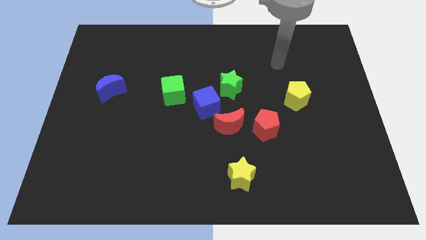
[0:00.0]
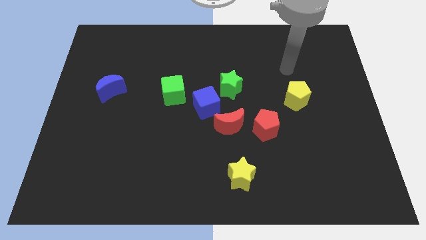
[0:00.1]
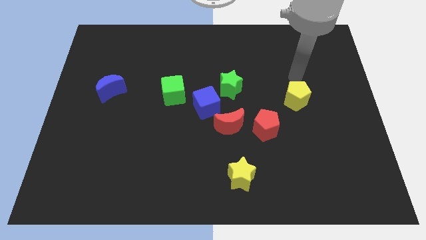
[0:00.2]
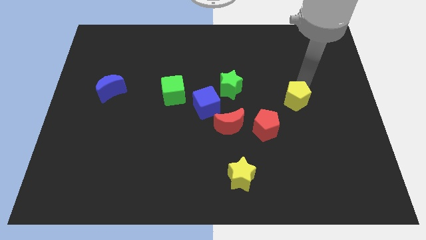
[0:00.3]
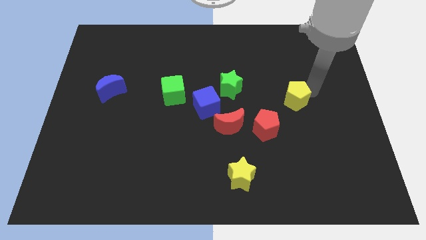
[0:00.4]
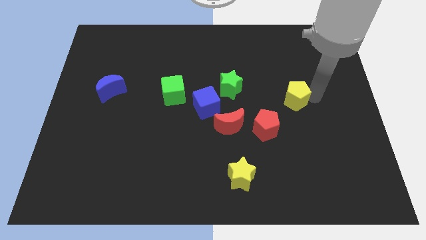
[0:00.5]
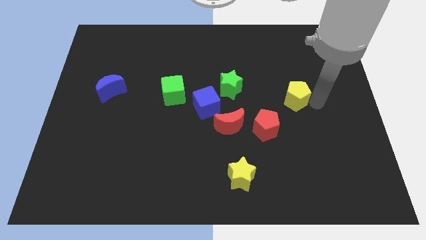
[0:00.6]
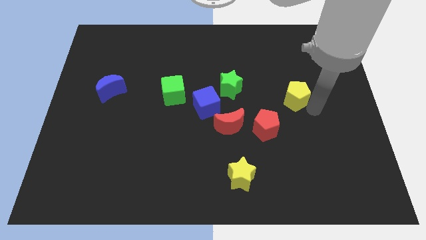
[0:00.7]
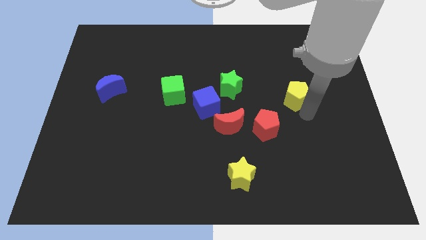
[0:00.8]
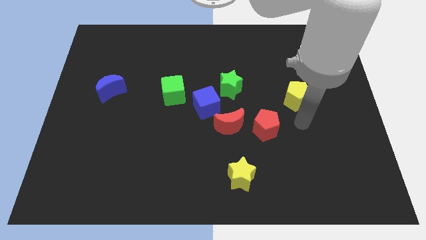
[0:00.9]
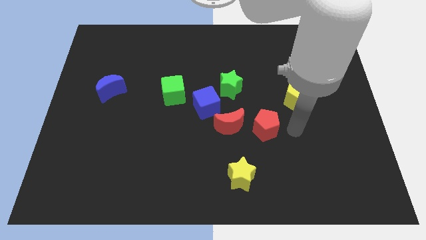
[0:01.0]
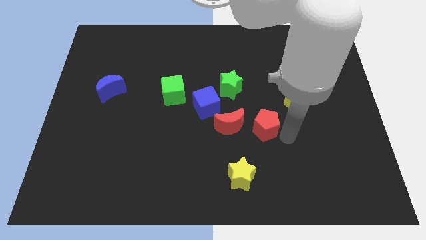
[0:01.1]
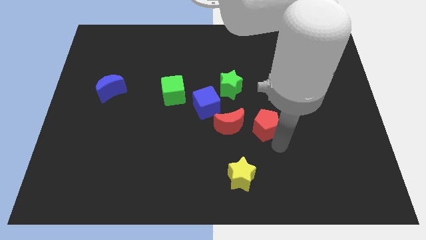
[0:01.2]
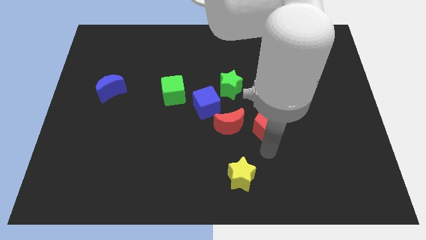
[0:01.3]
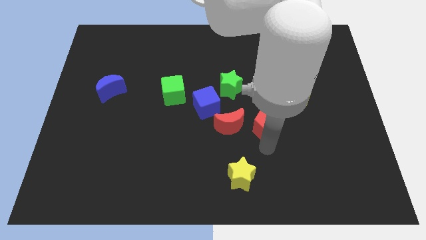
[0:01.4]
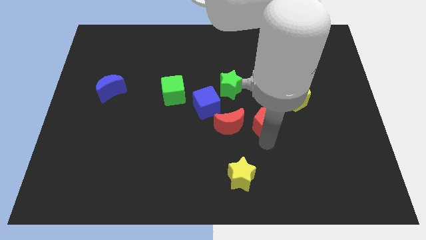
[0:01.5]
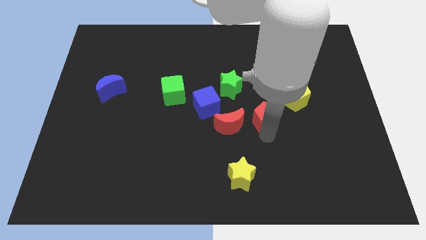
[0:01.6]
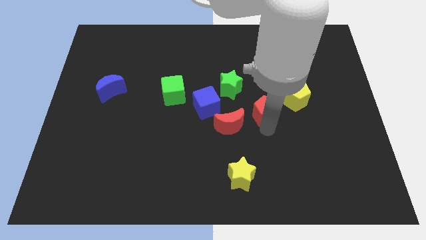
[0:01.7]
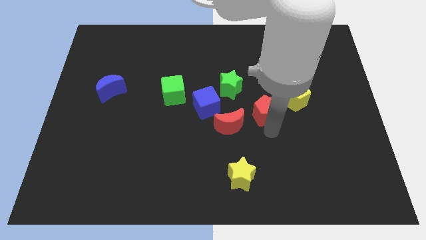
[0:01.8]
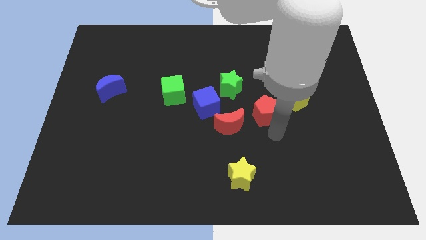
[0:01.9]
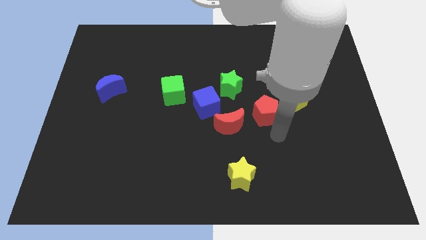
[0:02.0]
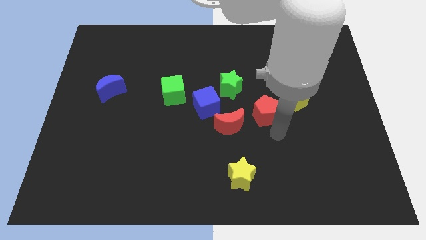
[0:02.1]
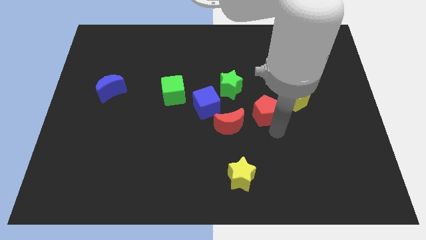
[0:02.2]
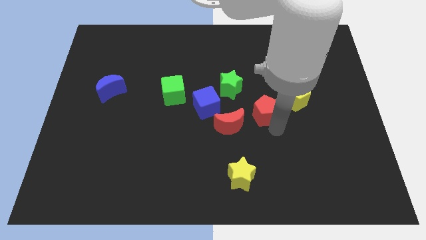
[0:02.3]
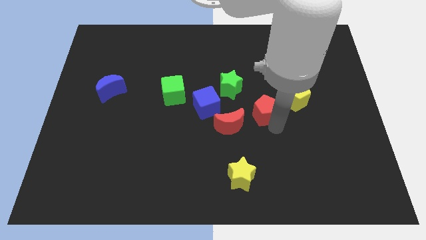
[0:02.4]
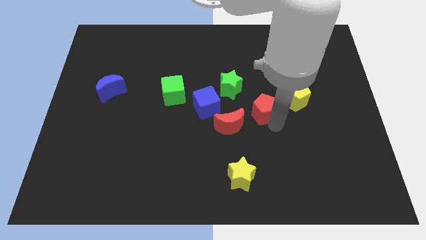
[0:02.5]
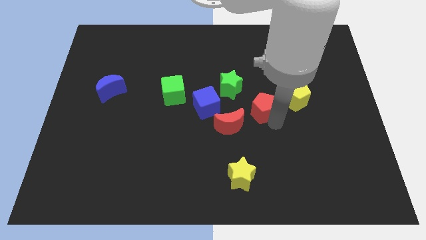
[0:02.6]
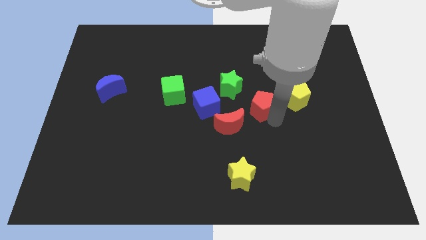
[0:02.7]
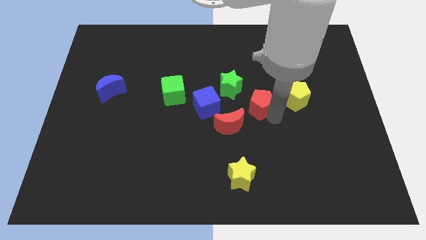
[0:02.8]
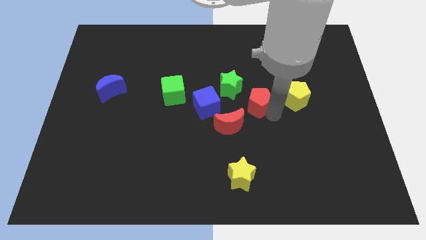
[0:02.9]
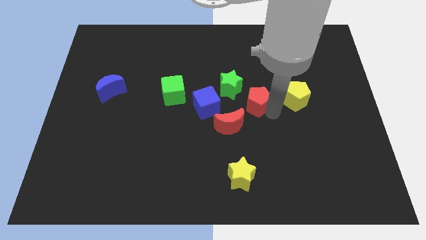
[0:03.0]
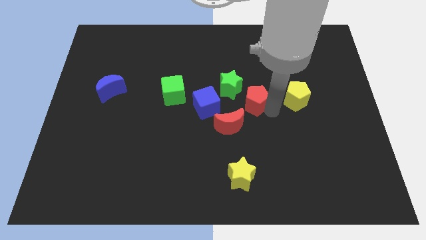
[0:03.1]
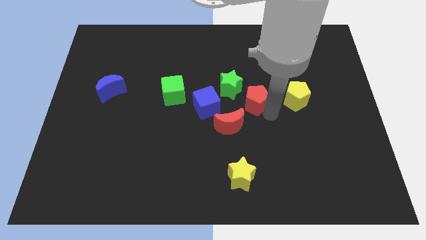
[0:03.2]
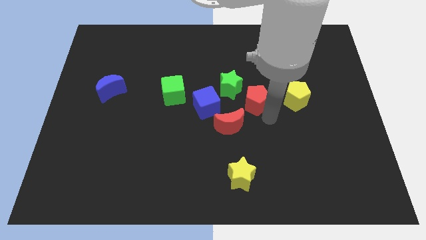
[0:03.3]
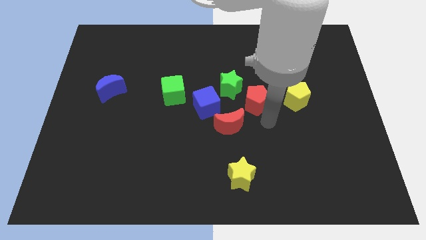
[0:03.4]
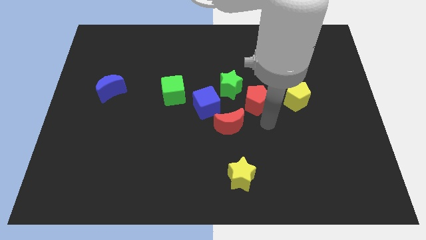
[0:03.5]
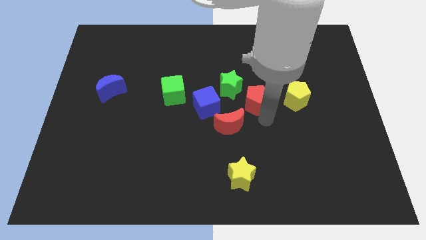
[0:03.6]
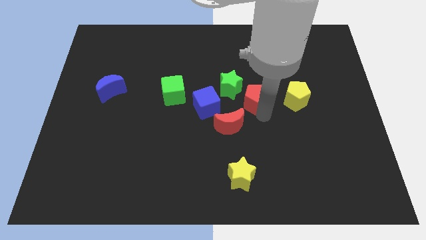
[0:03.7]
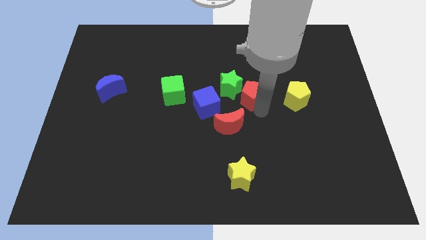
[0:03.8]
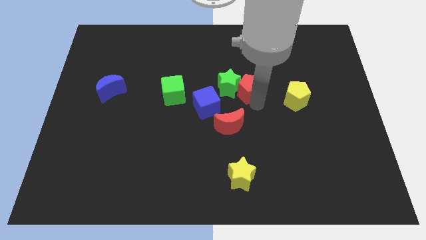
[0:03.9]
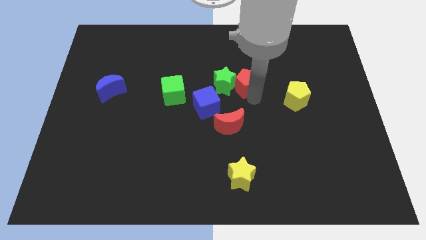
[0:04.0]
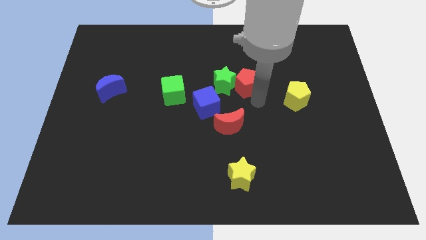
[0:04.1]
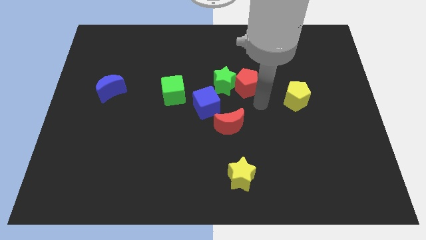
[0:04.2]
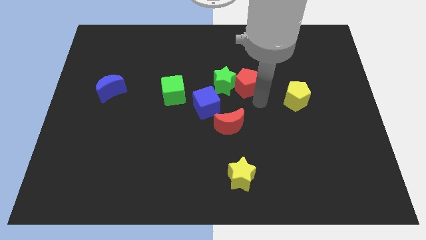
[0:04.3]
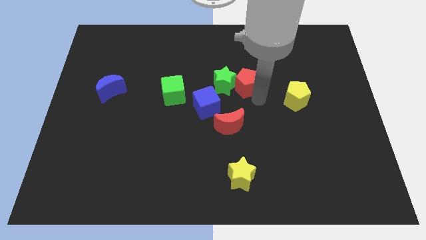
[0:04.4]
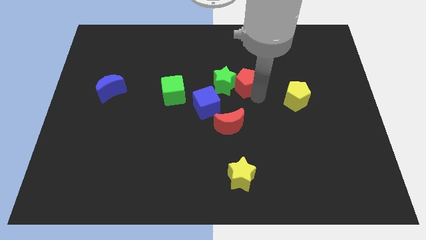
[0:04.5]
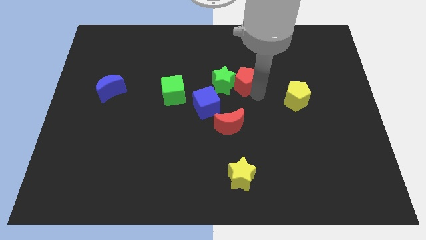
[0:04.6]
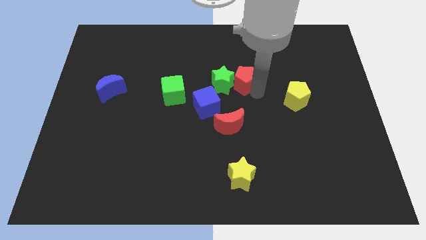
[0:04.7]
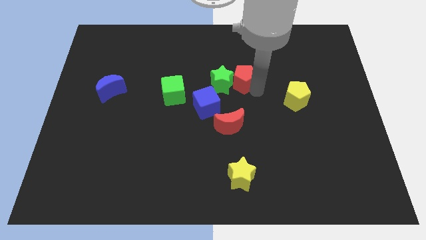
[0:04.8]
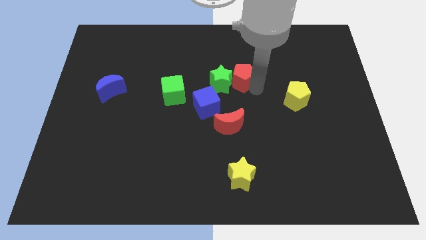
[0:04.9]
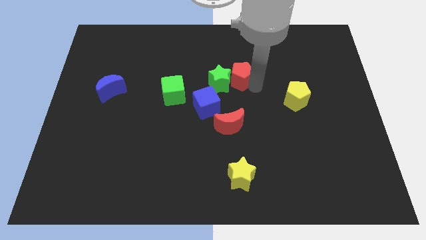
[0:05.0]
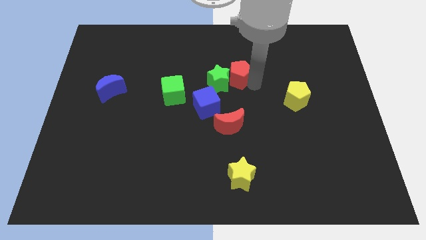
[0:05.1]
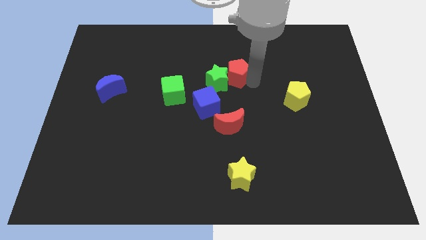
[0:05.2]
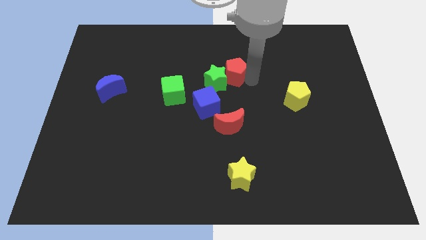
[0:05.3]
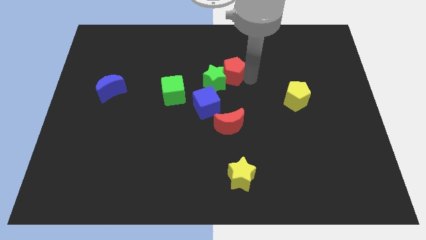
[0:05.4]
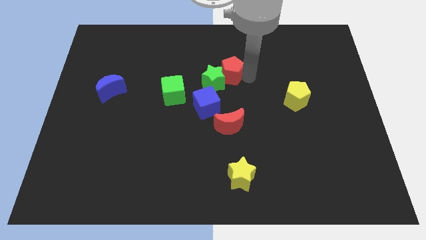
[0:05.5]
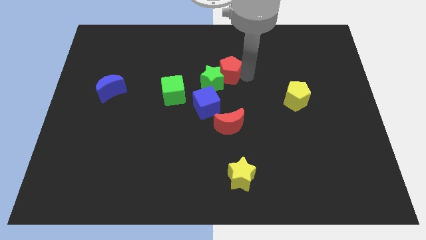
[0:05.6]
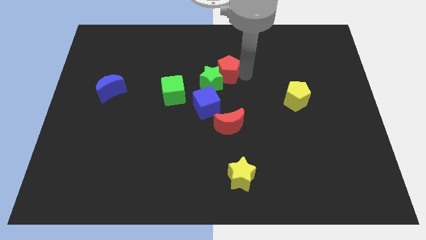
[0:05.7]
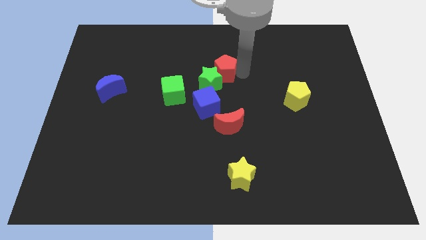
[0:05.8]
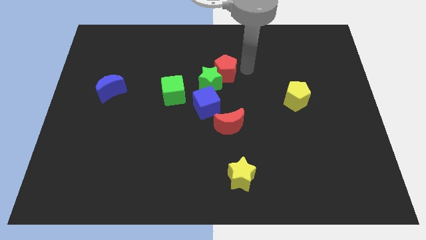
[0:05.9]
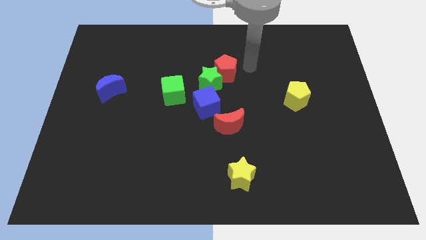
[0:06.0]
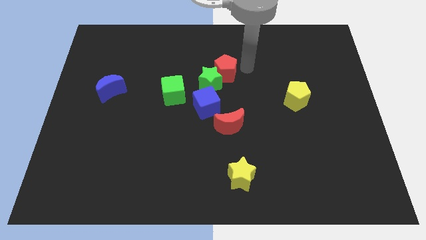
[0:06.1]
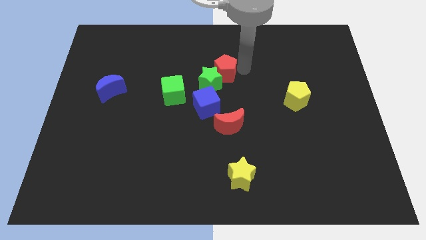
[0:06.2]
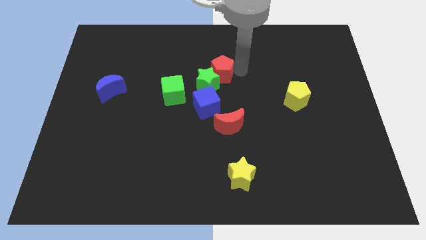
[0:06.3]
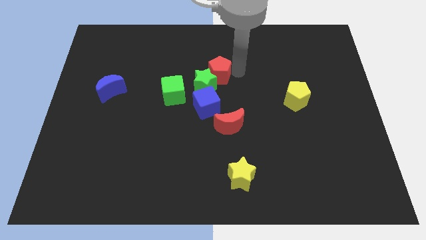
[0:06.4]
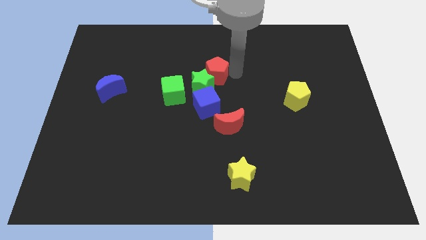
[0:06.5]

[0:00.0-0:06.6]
push the red pentagon diagonally up and to the right of the green cube

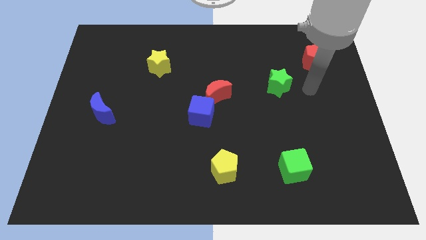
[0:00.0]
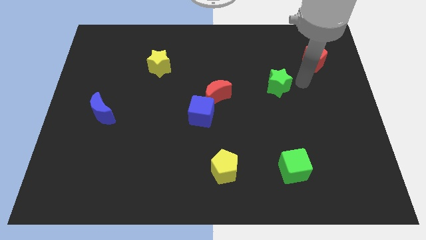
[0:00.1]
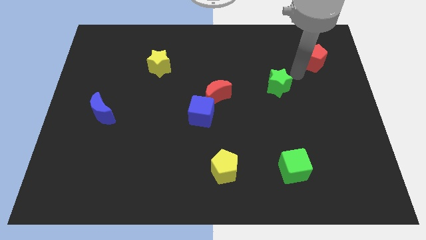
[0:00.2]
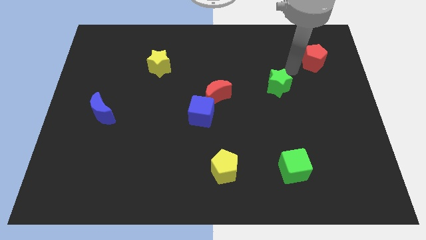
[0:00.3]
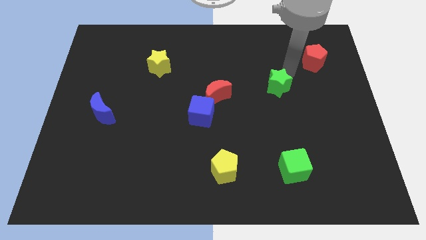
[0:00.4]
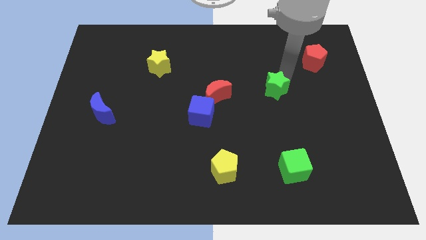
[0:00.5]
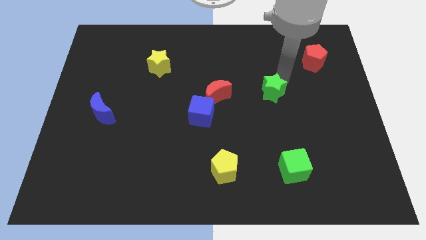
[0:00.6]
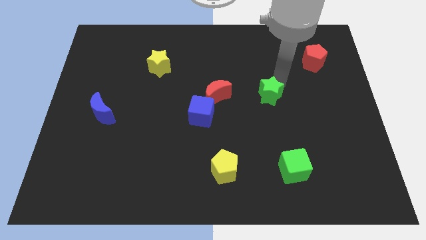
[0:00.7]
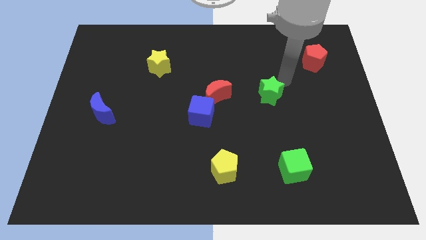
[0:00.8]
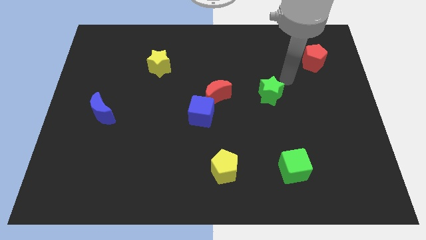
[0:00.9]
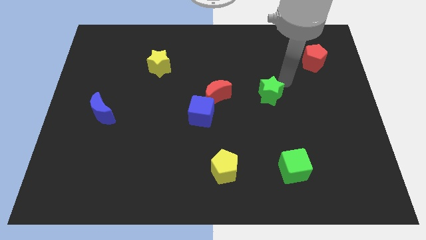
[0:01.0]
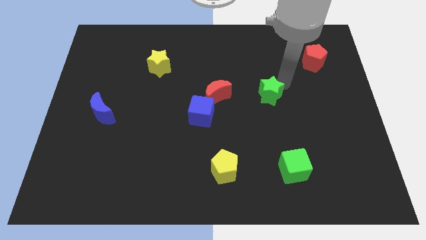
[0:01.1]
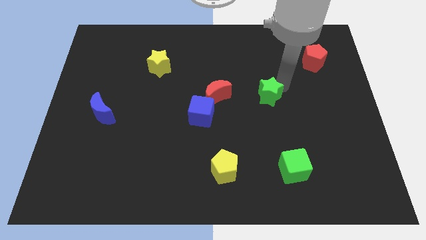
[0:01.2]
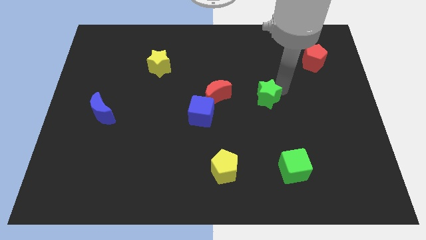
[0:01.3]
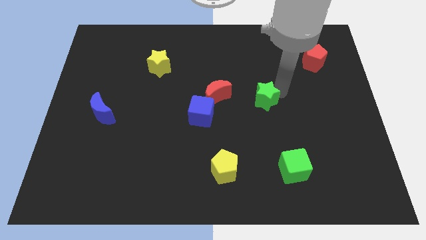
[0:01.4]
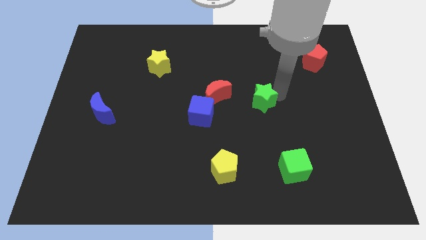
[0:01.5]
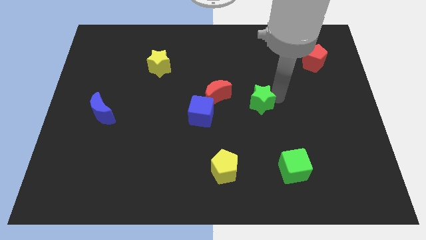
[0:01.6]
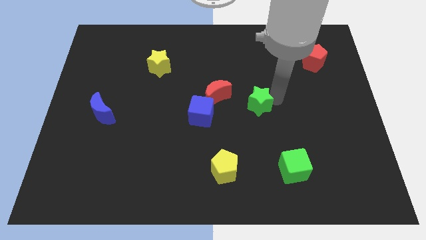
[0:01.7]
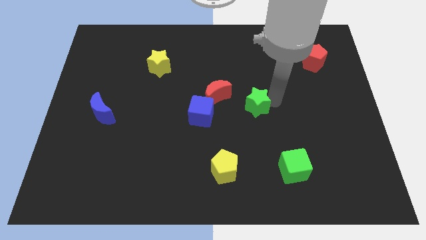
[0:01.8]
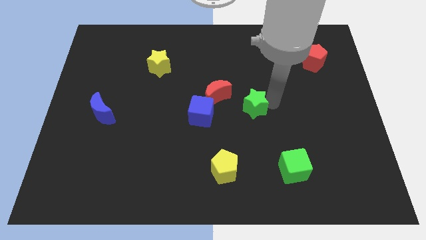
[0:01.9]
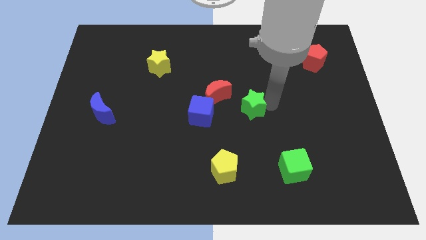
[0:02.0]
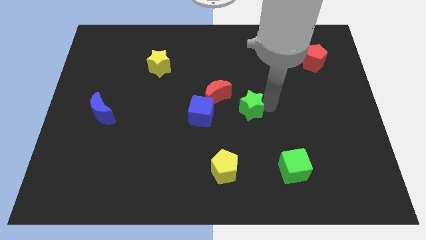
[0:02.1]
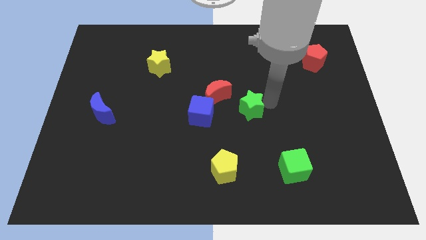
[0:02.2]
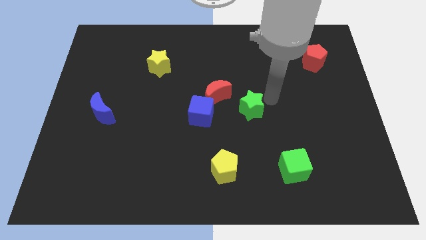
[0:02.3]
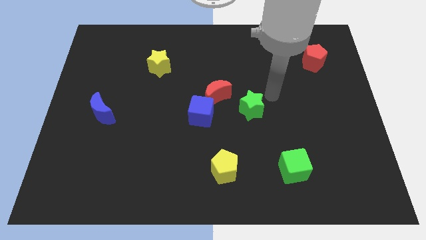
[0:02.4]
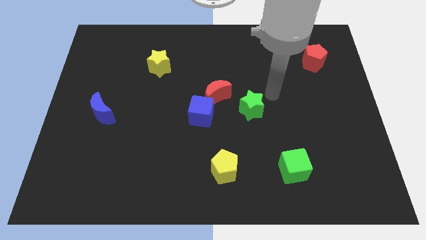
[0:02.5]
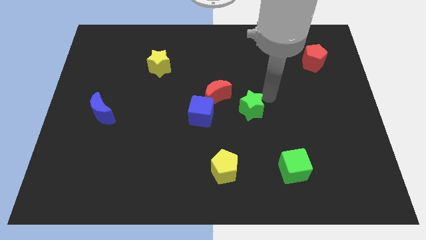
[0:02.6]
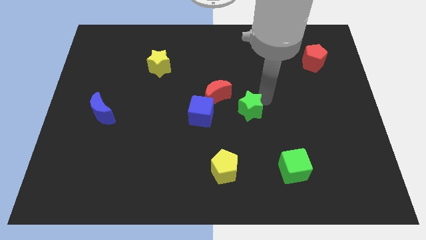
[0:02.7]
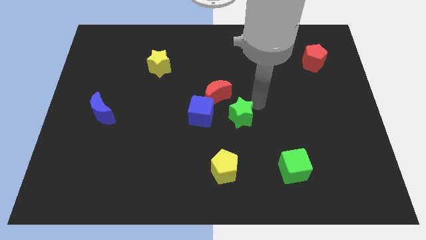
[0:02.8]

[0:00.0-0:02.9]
put the green star above the yellow pentagon
